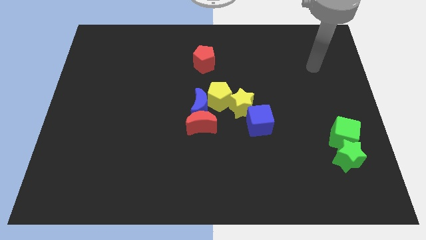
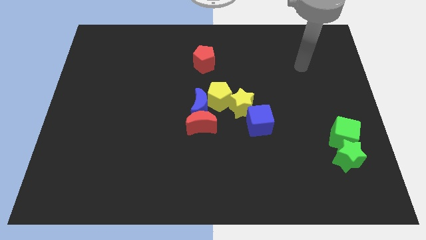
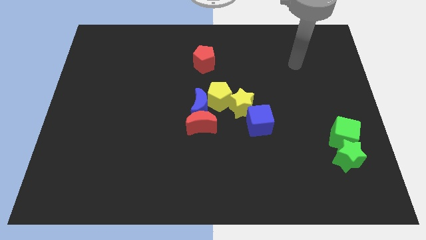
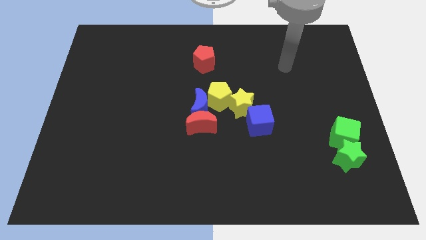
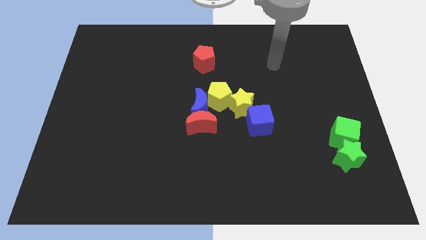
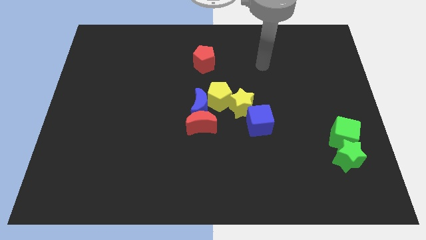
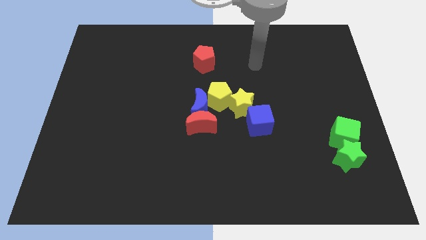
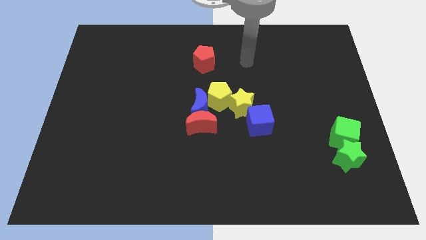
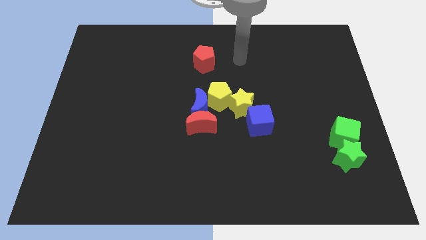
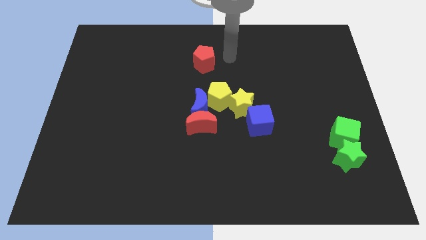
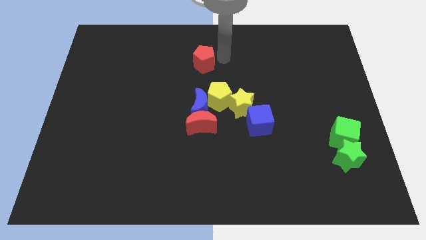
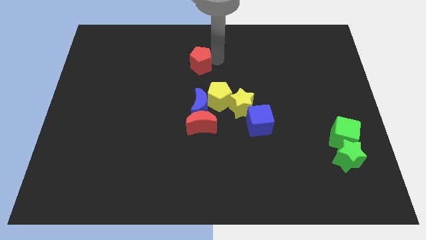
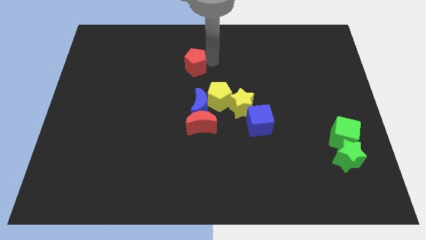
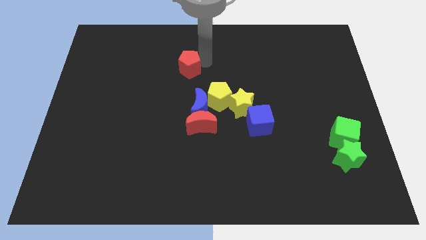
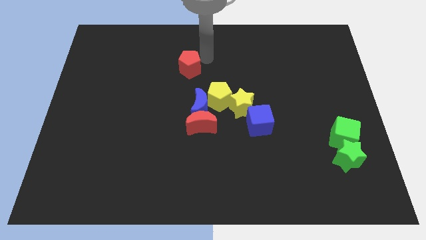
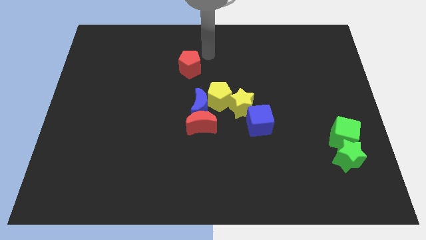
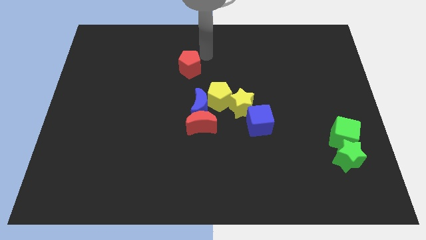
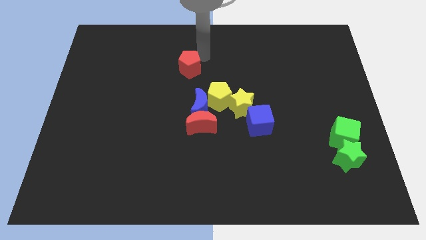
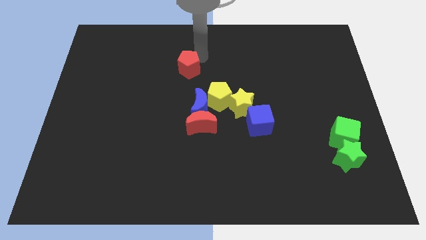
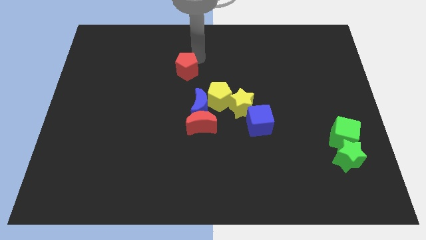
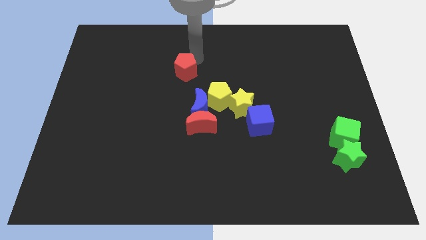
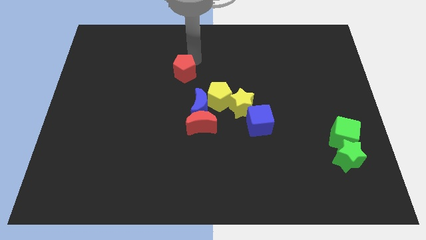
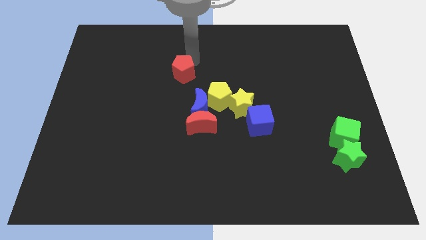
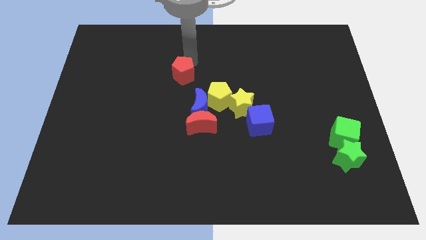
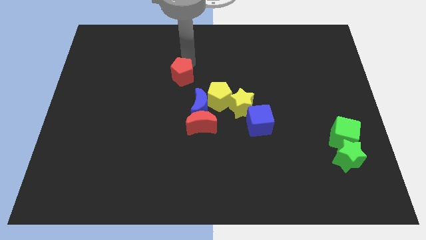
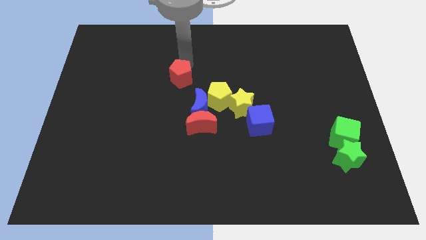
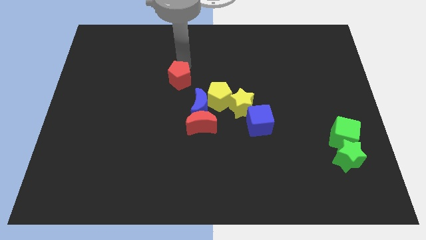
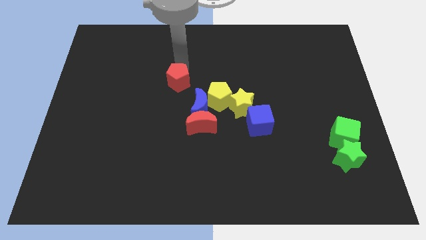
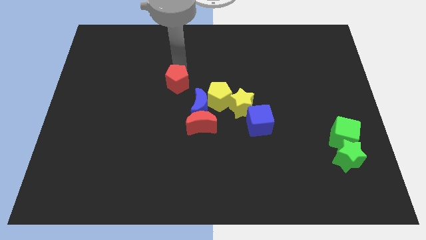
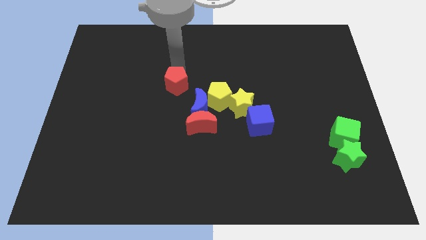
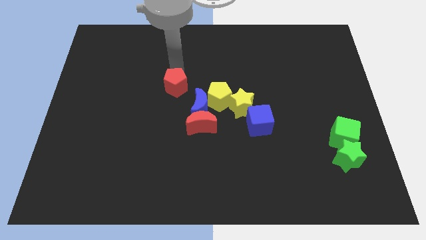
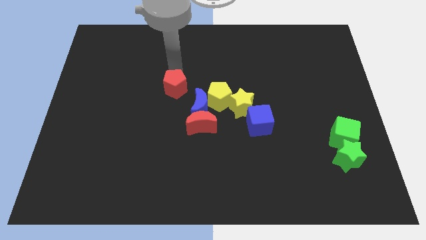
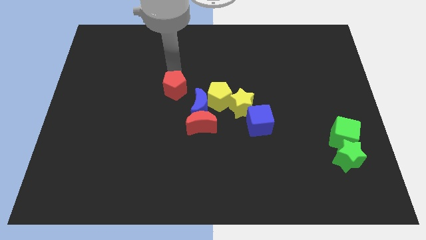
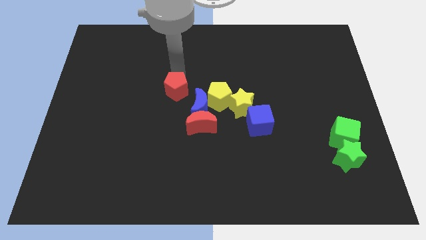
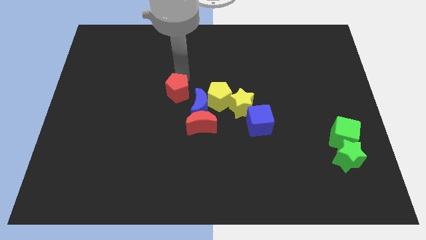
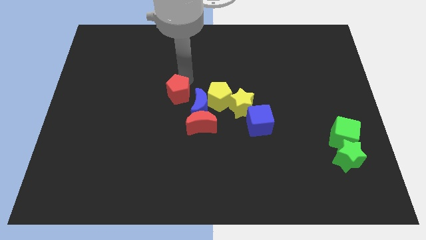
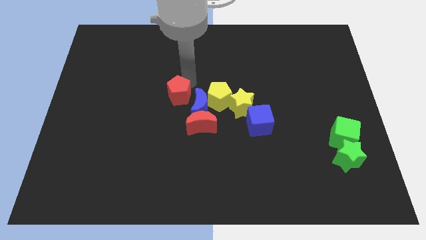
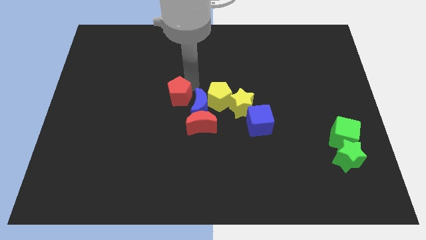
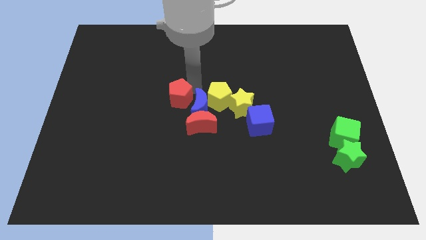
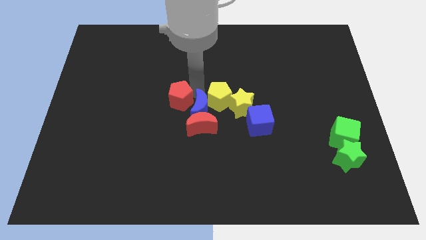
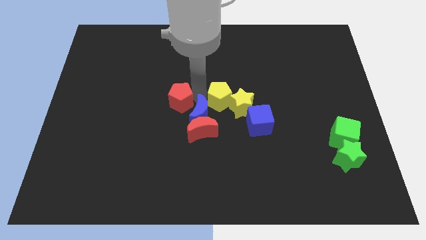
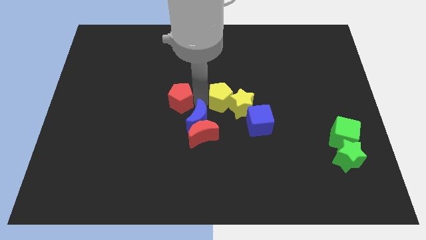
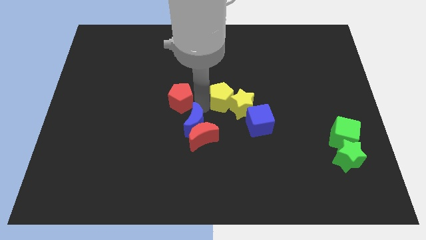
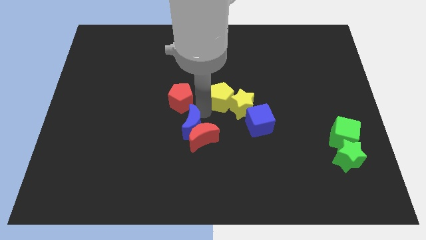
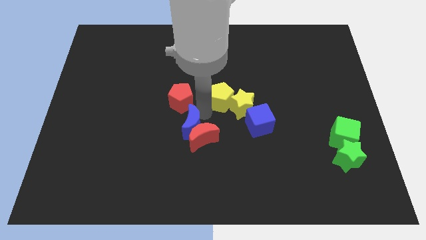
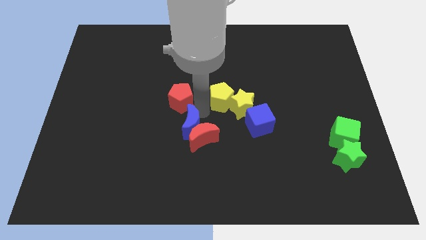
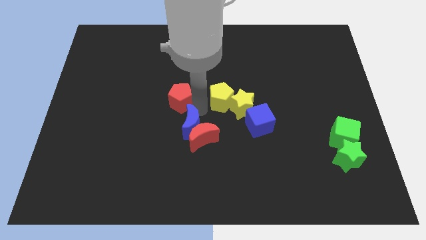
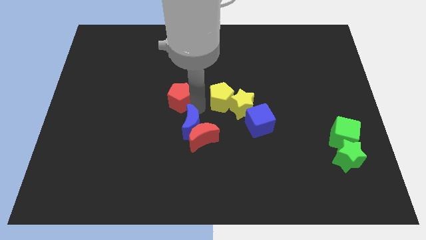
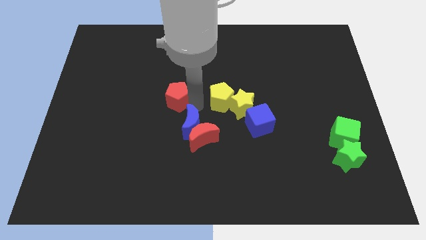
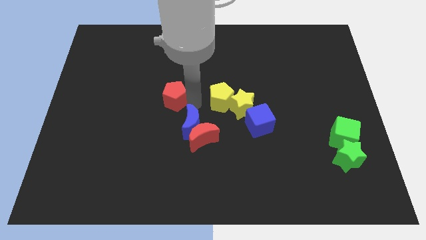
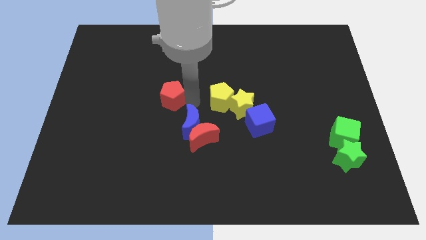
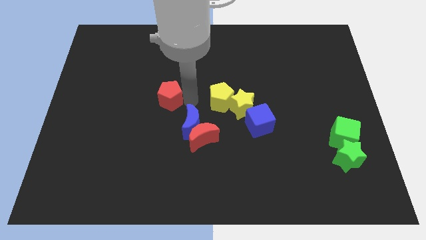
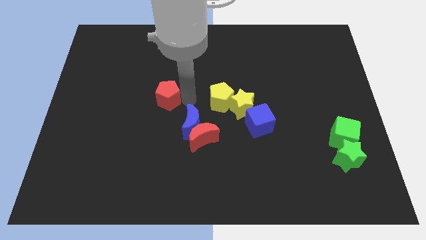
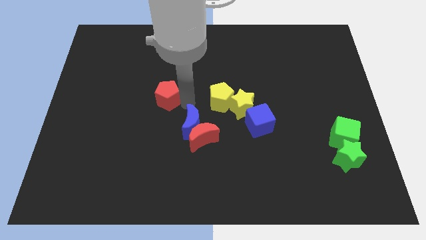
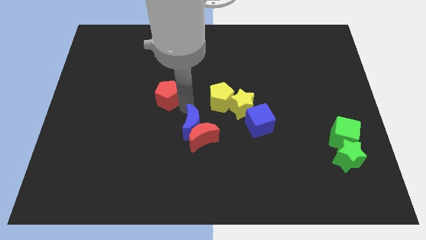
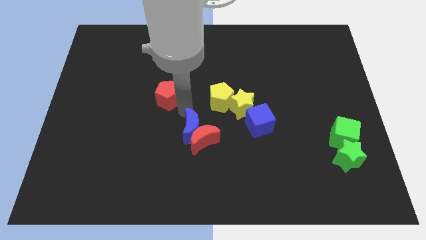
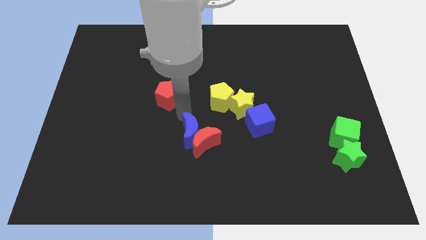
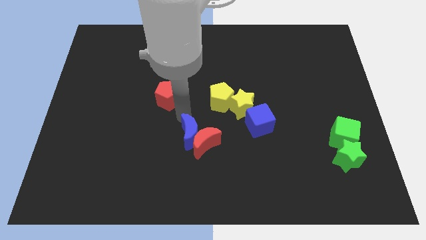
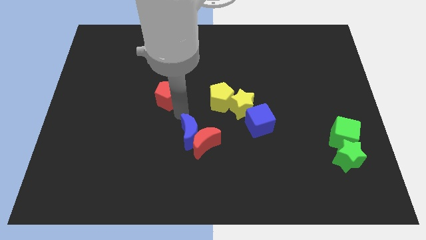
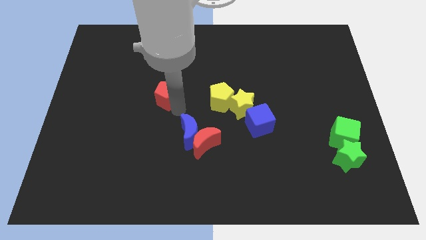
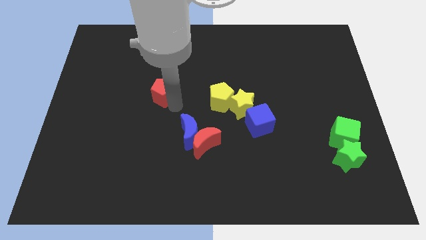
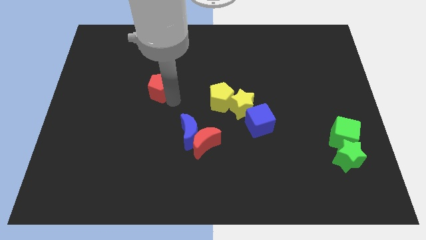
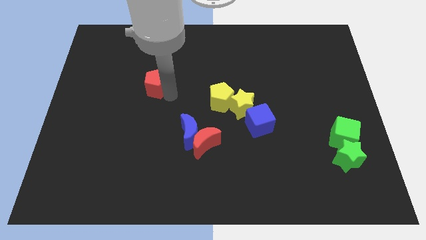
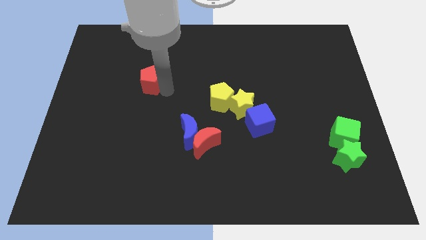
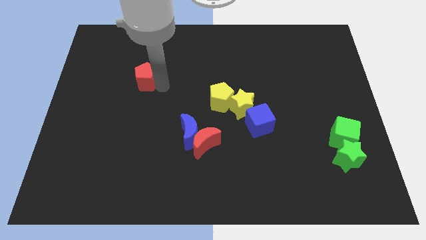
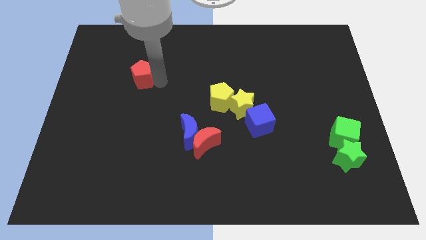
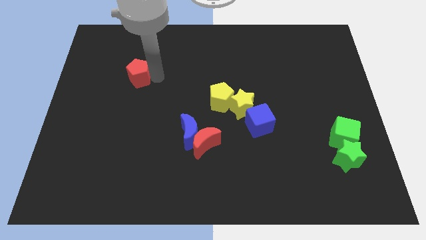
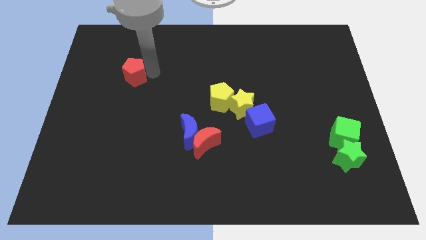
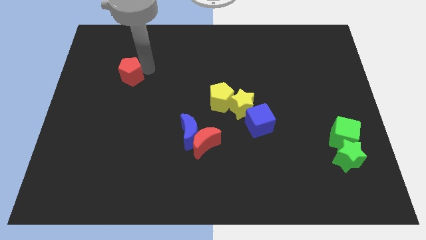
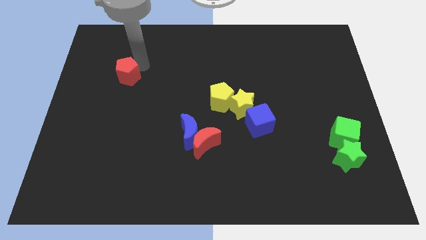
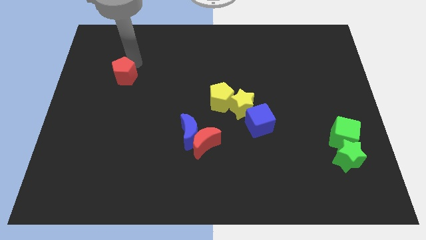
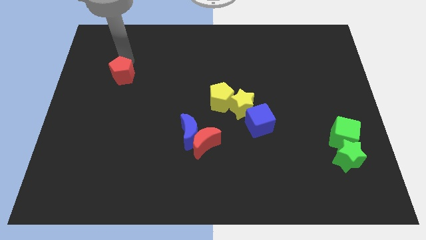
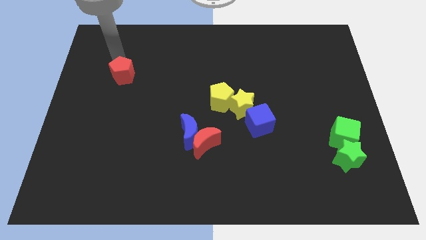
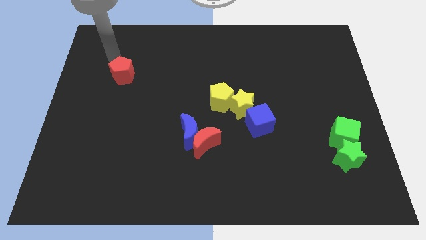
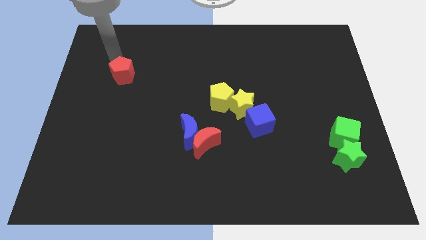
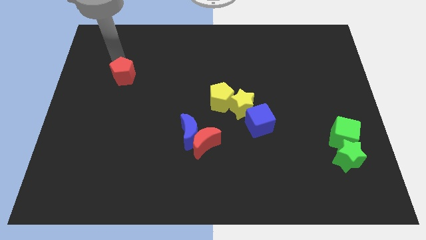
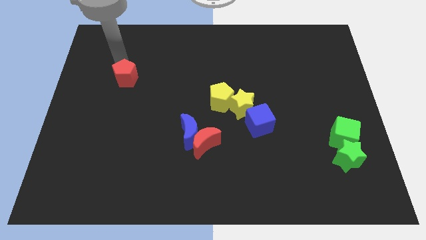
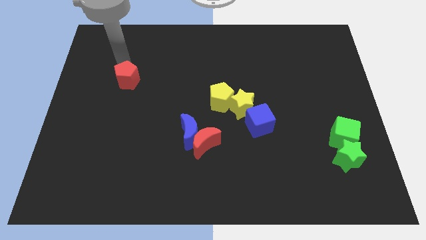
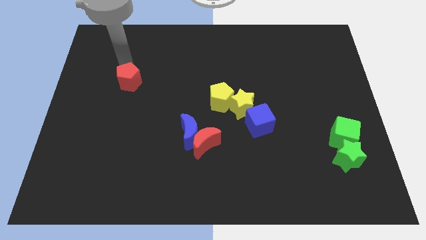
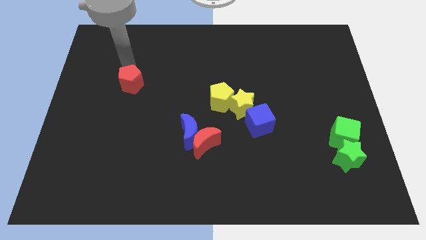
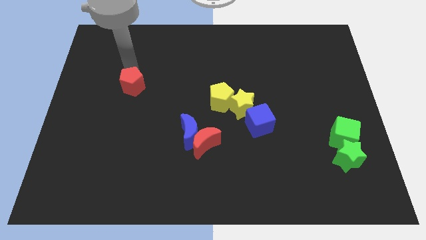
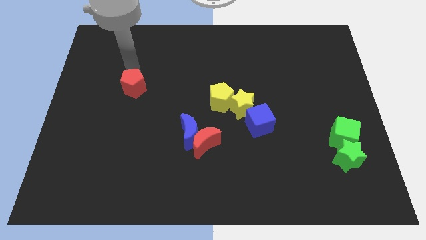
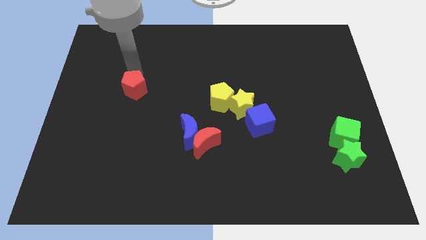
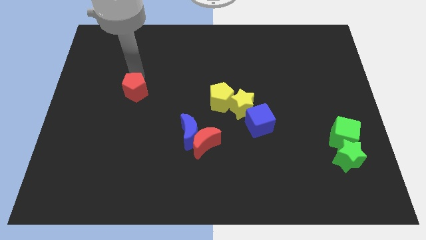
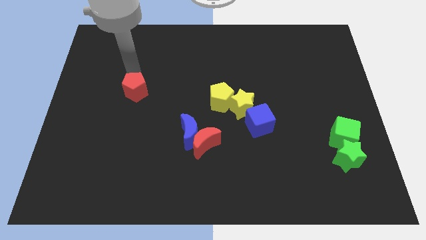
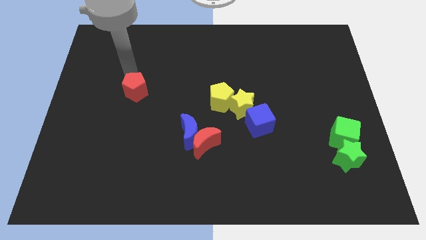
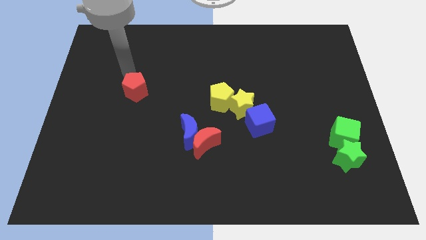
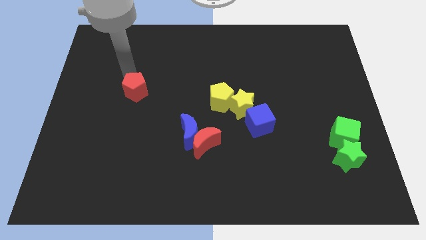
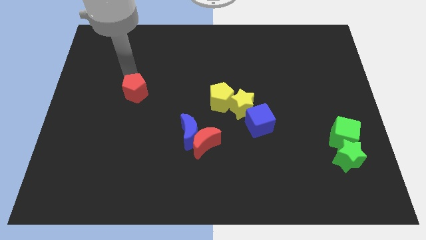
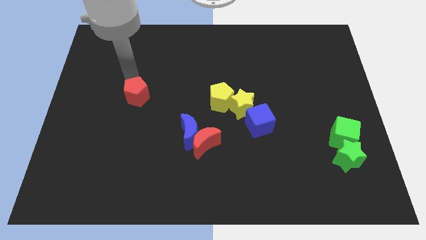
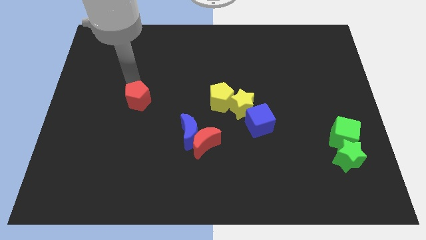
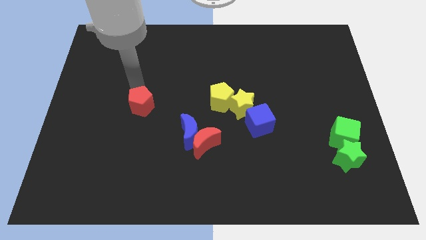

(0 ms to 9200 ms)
move the red pentagon down and left diagonally
